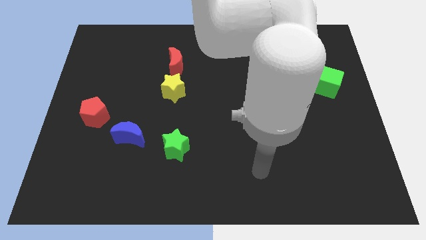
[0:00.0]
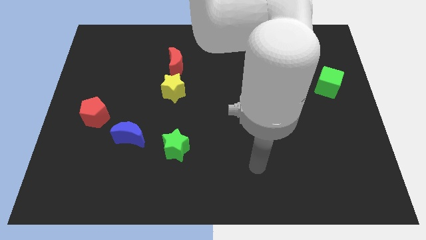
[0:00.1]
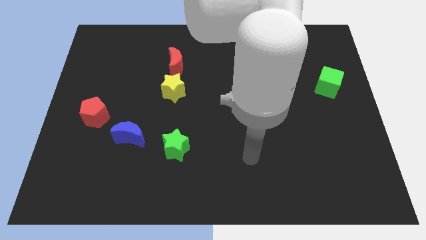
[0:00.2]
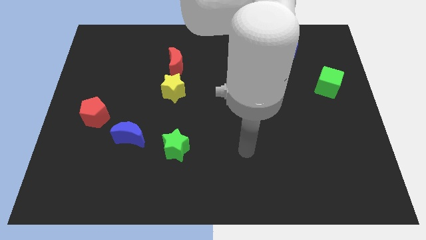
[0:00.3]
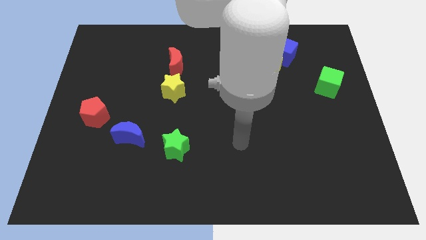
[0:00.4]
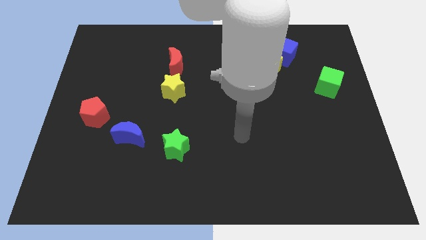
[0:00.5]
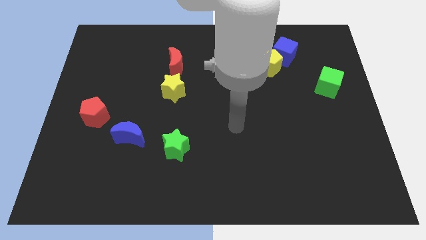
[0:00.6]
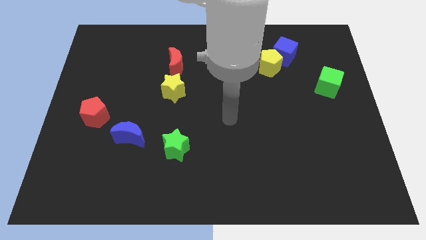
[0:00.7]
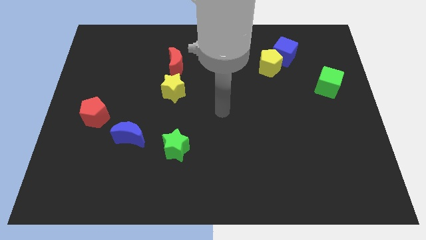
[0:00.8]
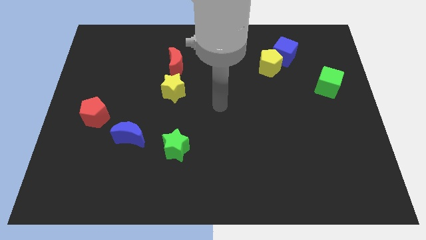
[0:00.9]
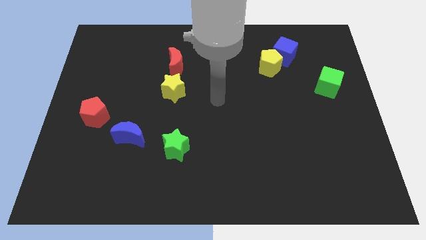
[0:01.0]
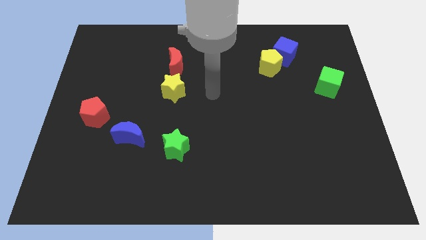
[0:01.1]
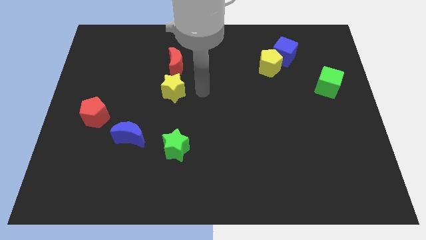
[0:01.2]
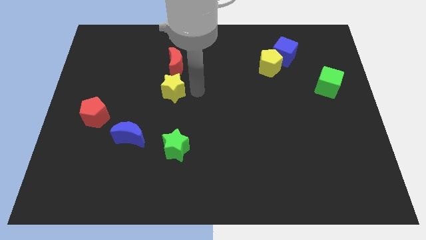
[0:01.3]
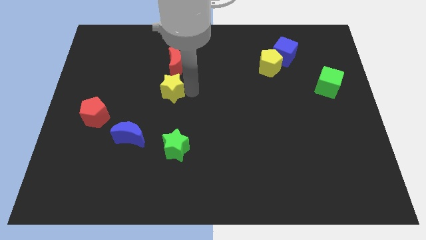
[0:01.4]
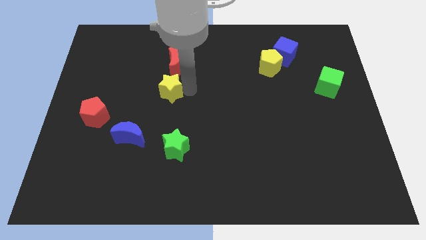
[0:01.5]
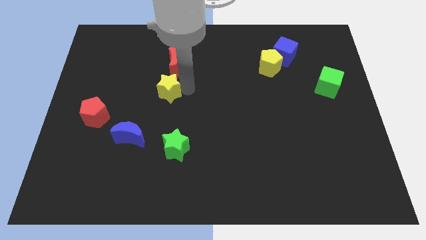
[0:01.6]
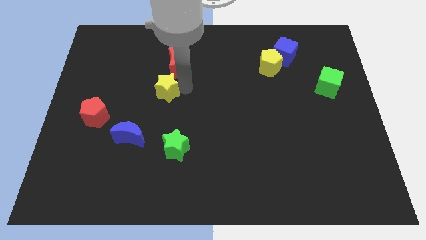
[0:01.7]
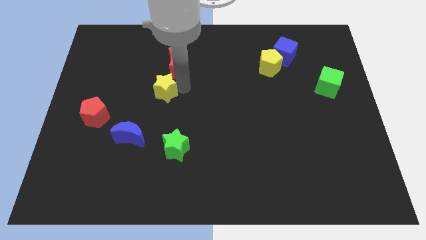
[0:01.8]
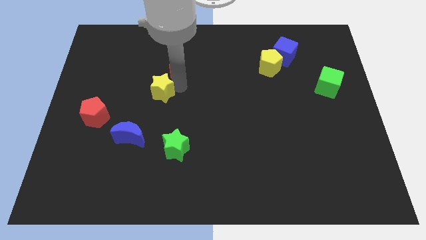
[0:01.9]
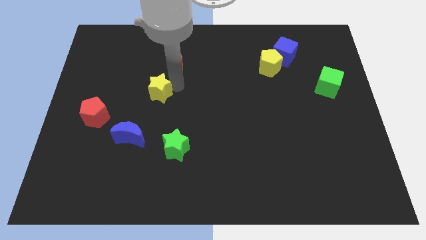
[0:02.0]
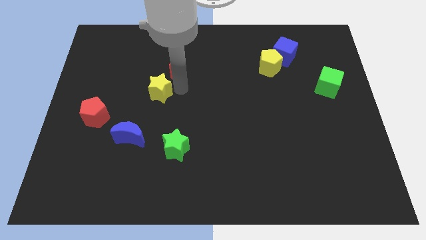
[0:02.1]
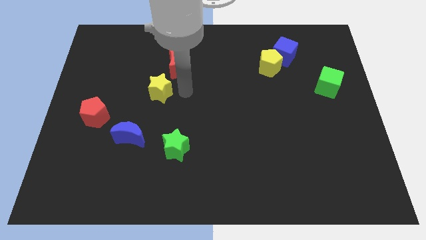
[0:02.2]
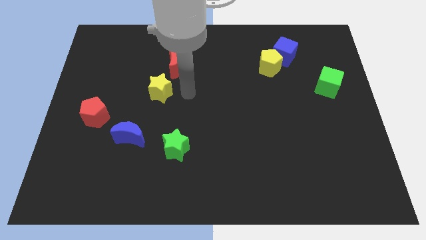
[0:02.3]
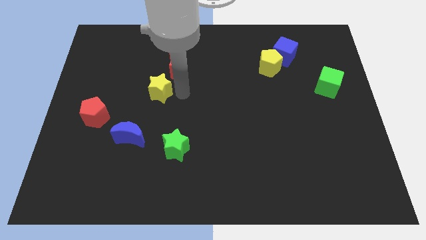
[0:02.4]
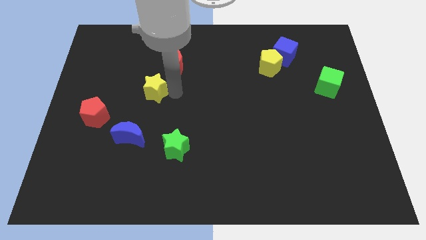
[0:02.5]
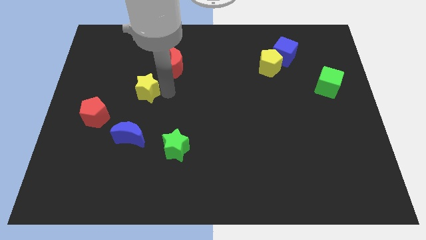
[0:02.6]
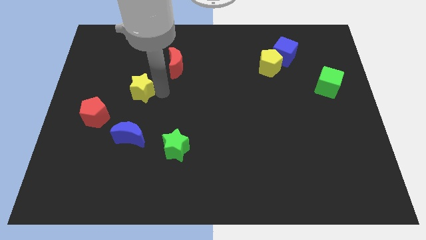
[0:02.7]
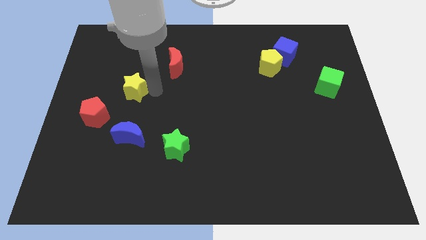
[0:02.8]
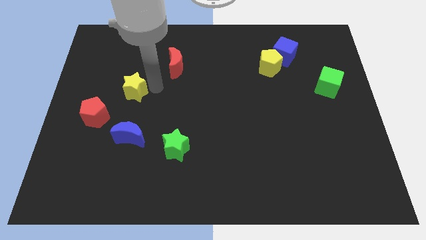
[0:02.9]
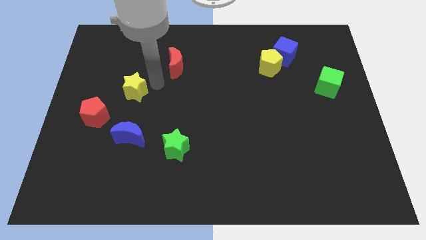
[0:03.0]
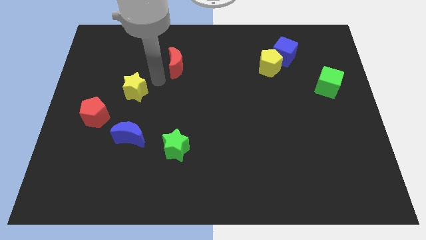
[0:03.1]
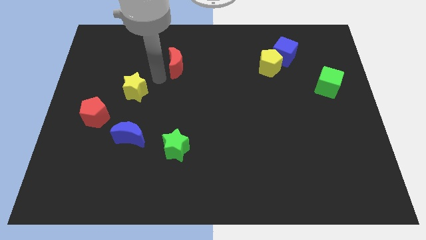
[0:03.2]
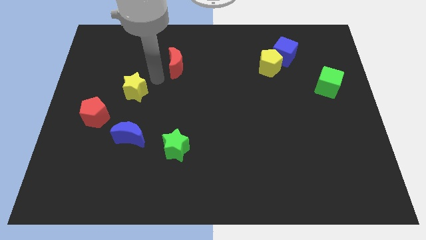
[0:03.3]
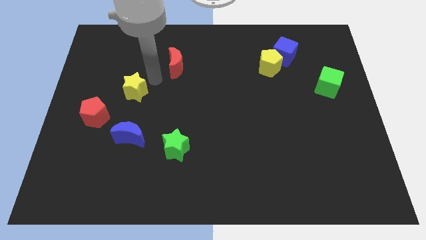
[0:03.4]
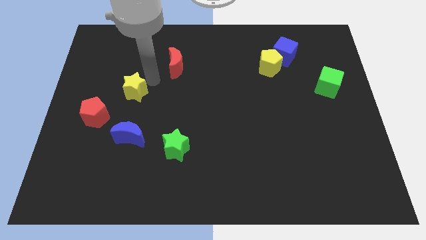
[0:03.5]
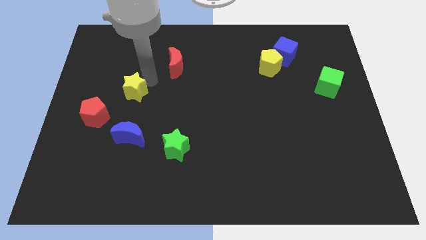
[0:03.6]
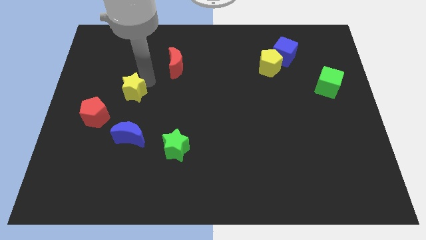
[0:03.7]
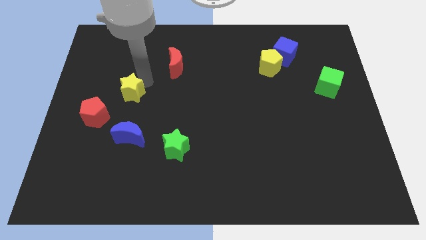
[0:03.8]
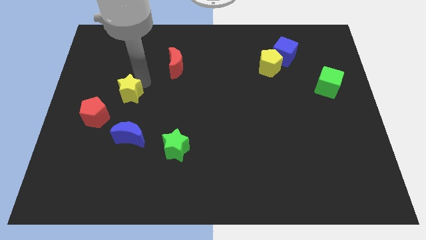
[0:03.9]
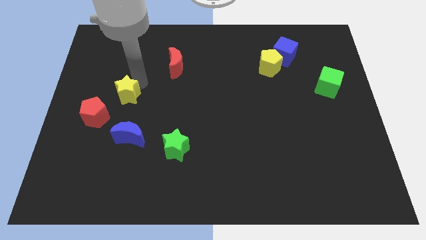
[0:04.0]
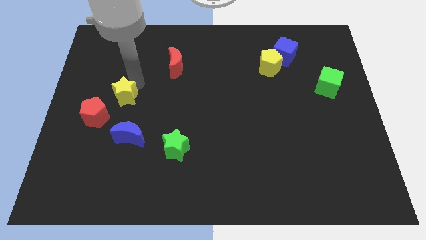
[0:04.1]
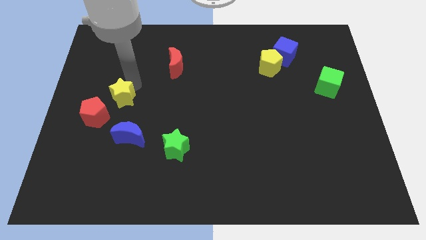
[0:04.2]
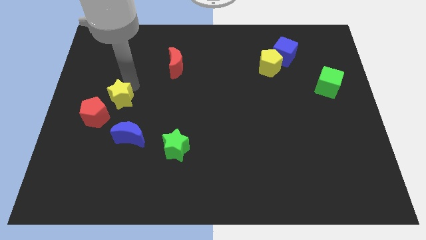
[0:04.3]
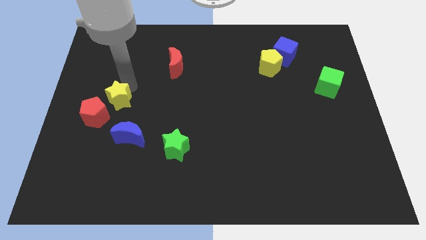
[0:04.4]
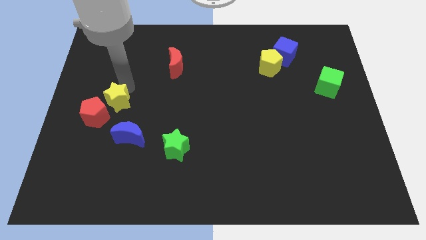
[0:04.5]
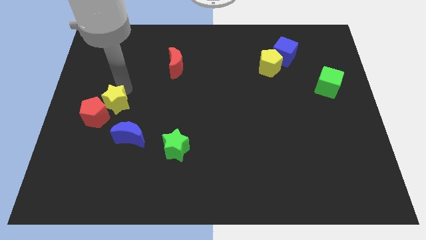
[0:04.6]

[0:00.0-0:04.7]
put the yellow star next to the red pentagon

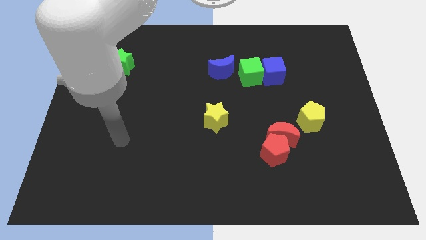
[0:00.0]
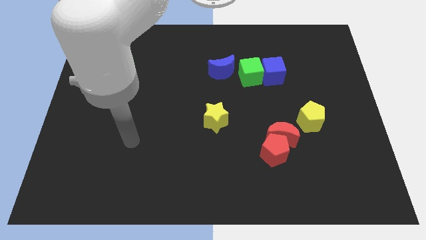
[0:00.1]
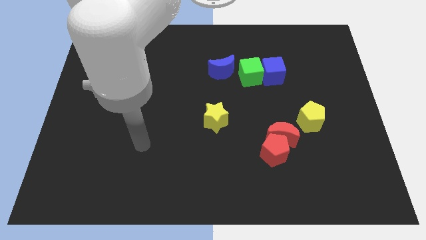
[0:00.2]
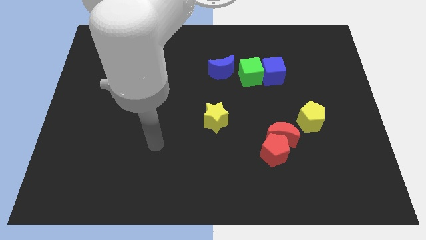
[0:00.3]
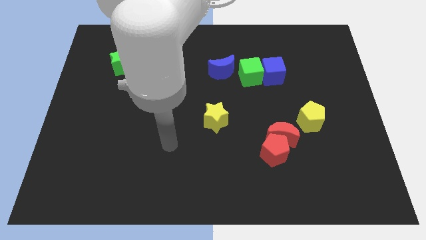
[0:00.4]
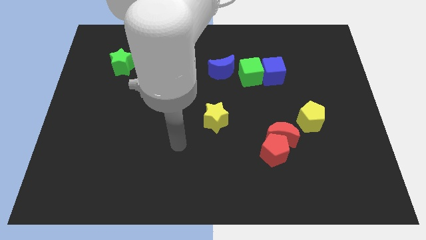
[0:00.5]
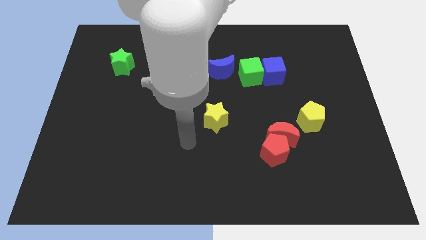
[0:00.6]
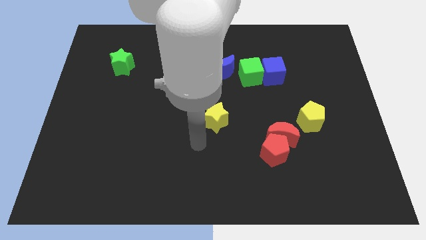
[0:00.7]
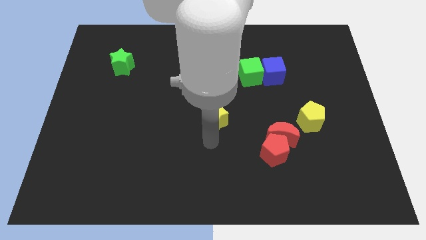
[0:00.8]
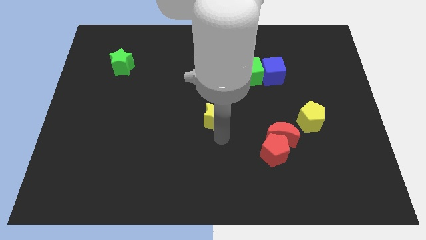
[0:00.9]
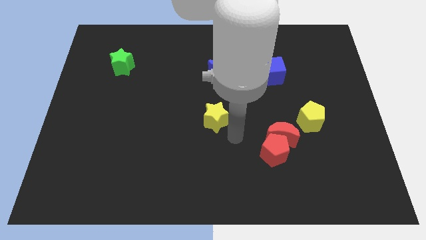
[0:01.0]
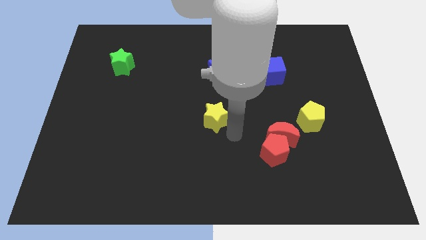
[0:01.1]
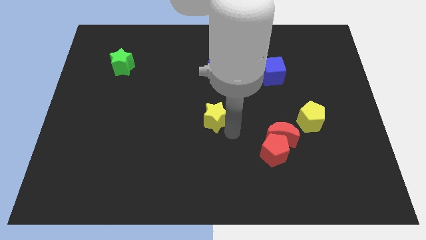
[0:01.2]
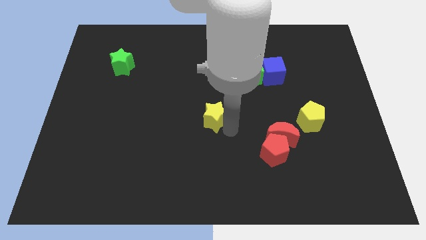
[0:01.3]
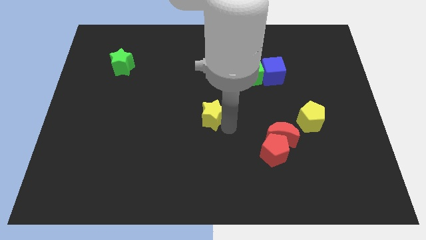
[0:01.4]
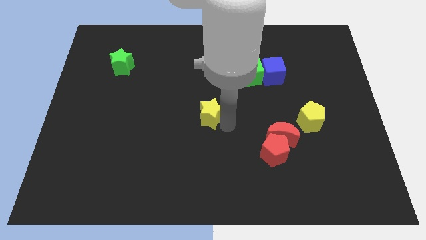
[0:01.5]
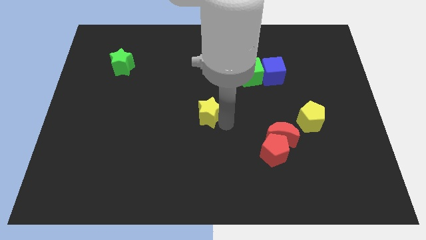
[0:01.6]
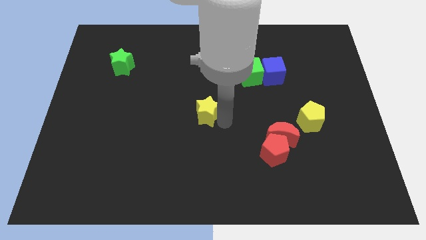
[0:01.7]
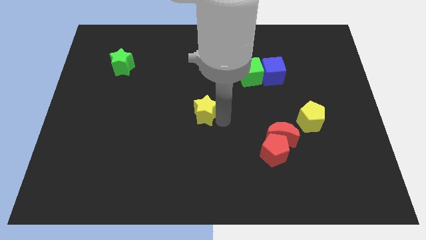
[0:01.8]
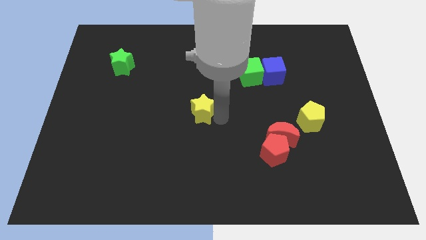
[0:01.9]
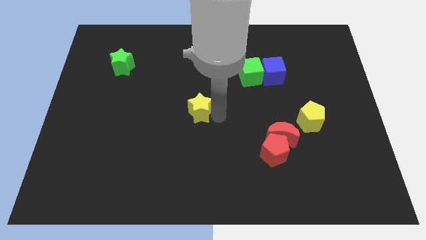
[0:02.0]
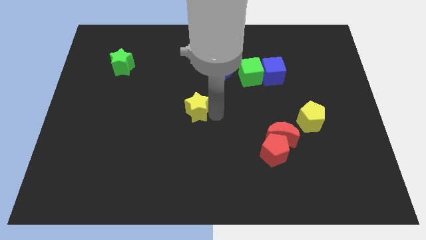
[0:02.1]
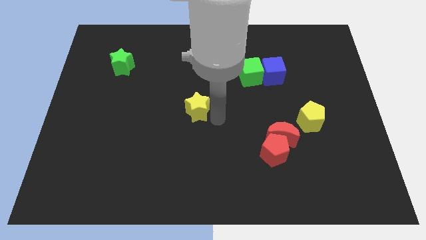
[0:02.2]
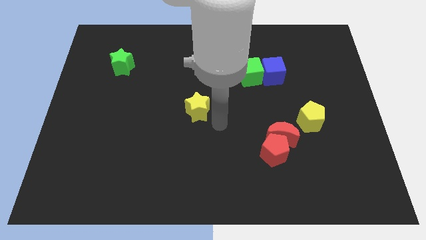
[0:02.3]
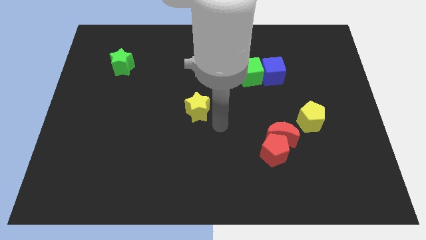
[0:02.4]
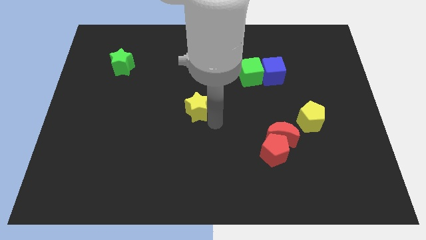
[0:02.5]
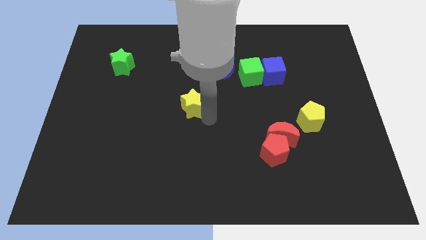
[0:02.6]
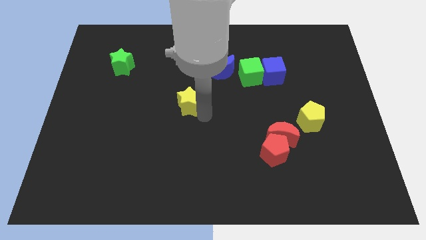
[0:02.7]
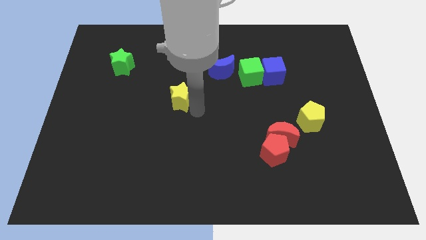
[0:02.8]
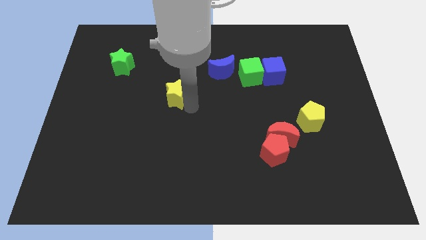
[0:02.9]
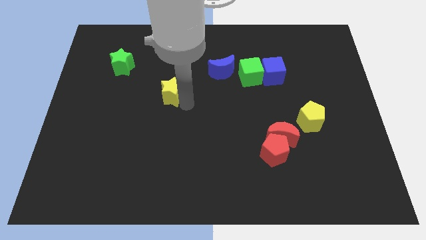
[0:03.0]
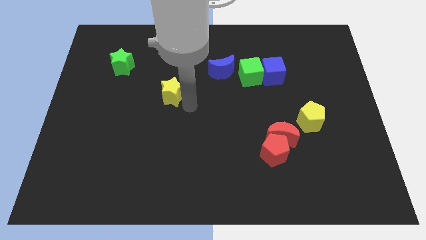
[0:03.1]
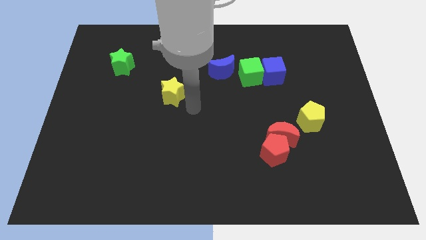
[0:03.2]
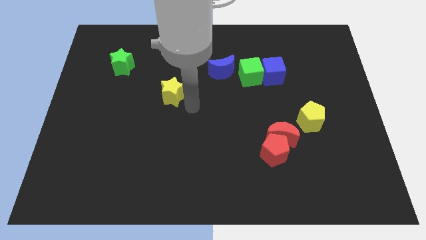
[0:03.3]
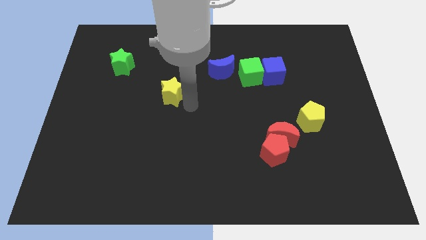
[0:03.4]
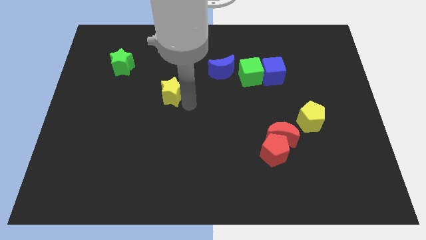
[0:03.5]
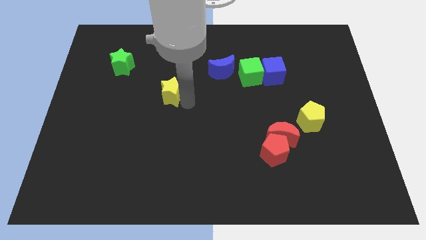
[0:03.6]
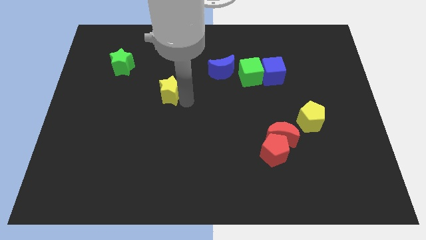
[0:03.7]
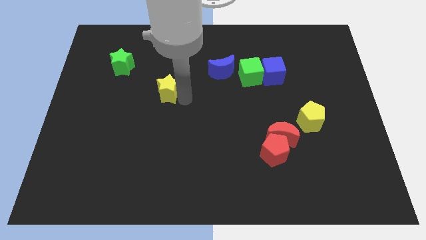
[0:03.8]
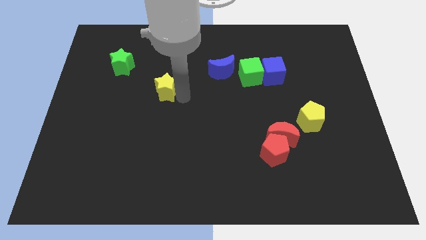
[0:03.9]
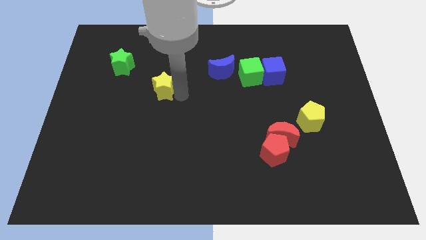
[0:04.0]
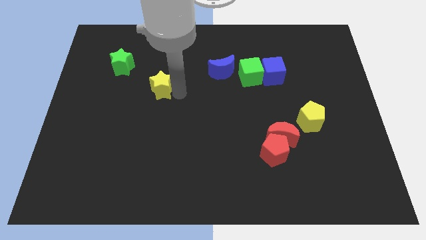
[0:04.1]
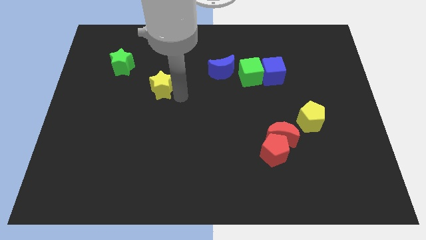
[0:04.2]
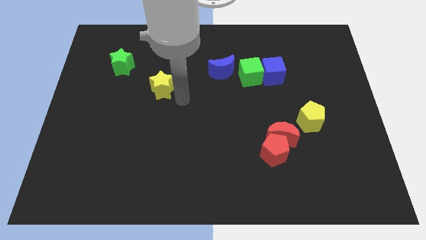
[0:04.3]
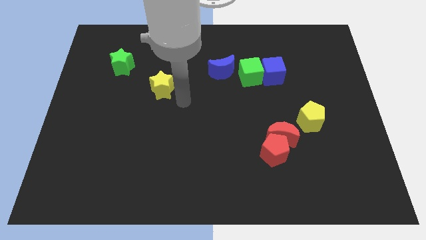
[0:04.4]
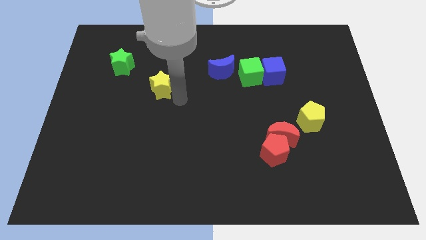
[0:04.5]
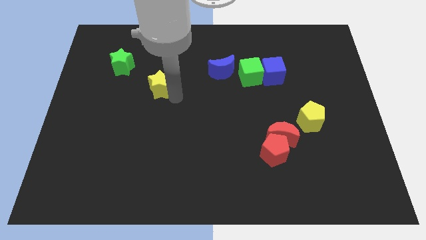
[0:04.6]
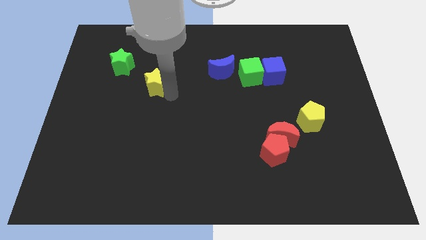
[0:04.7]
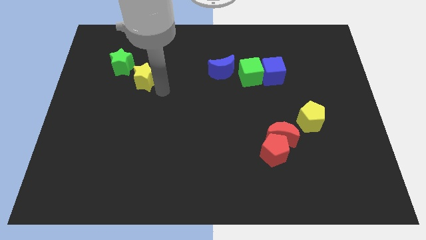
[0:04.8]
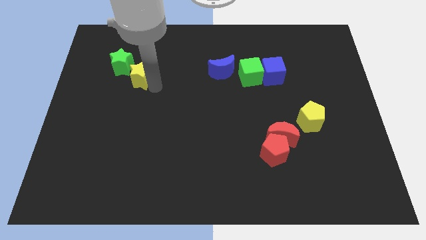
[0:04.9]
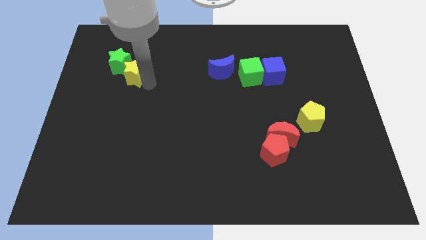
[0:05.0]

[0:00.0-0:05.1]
push the yellow star next to the green star
